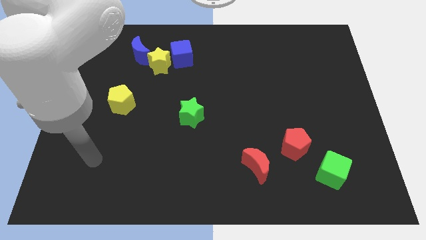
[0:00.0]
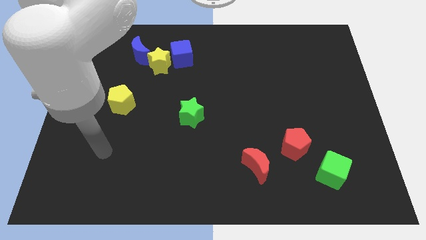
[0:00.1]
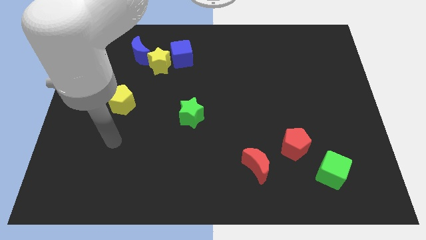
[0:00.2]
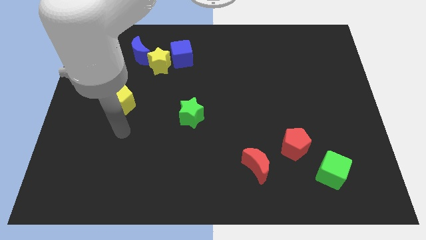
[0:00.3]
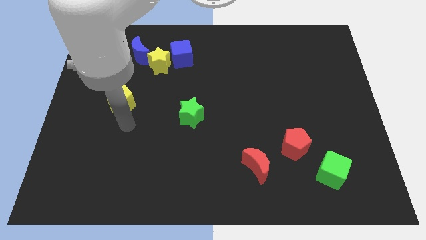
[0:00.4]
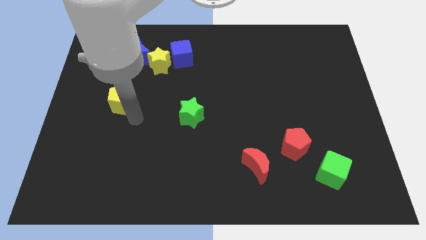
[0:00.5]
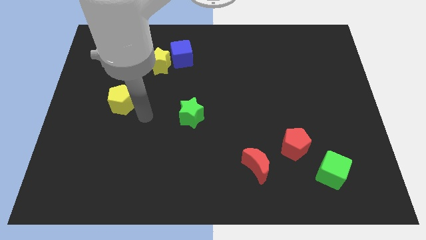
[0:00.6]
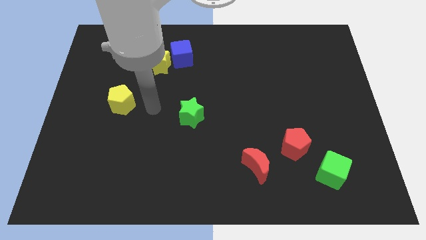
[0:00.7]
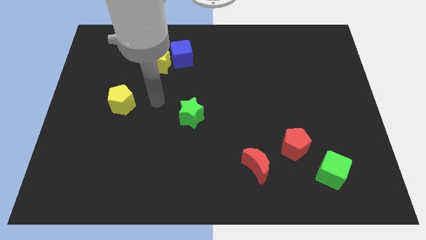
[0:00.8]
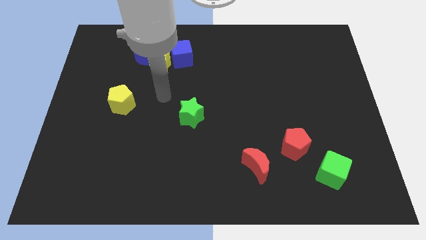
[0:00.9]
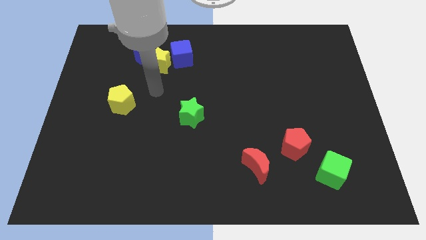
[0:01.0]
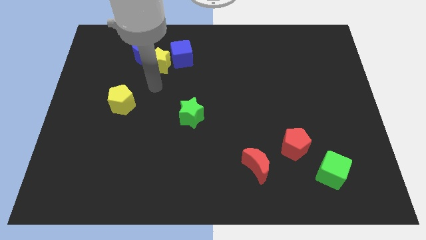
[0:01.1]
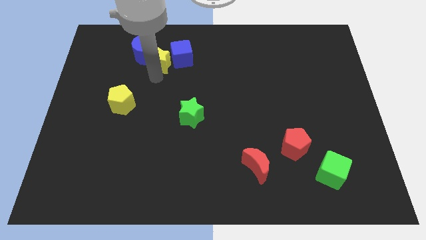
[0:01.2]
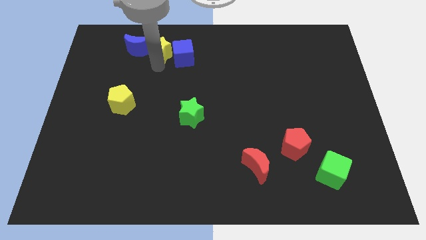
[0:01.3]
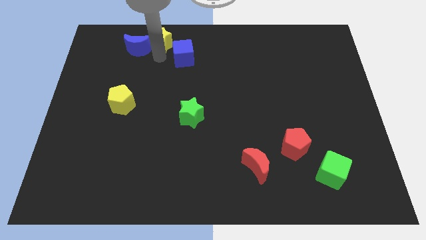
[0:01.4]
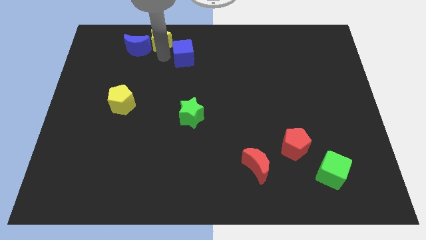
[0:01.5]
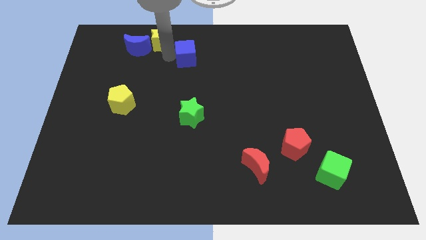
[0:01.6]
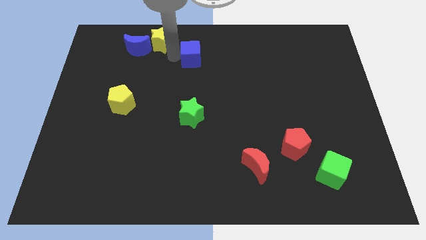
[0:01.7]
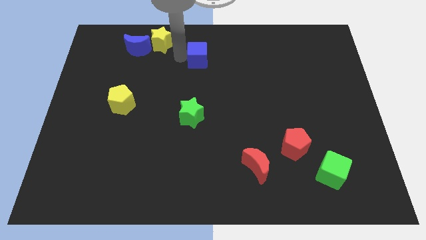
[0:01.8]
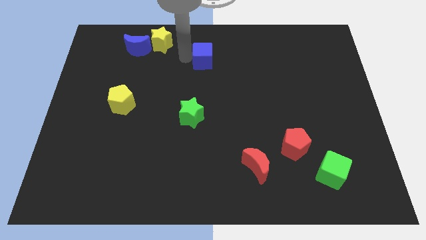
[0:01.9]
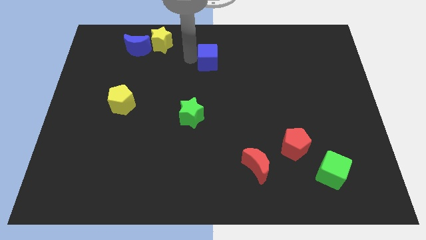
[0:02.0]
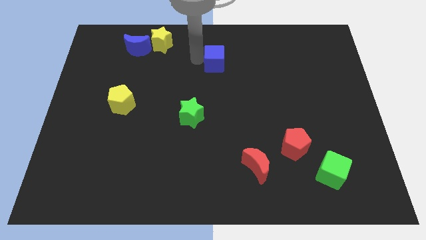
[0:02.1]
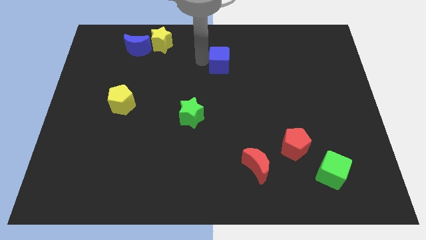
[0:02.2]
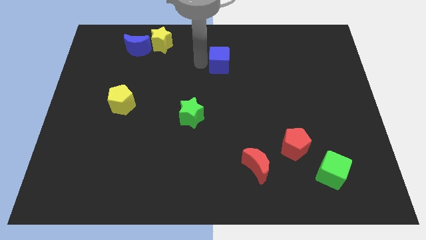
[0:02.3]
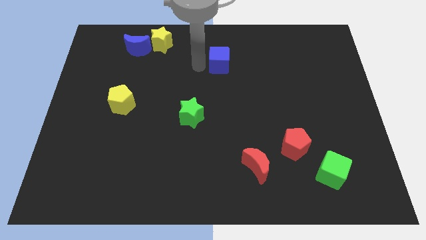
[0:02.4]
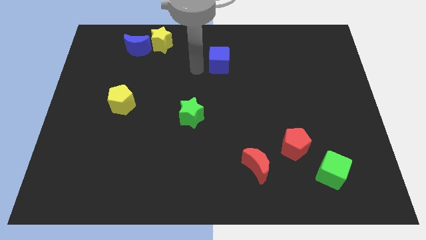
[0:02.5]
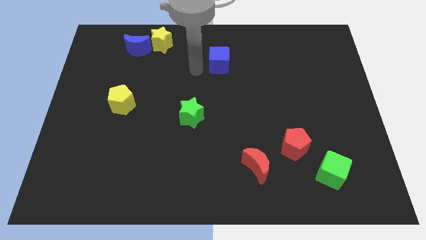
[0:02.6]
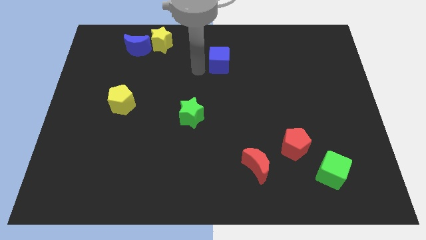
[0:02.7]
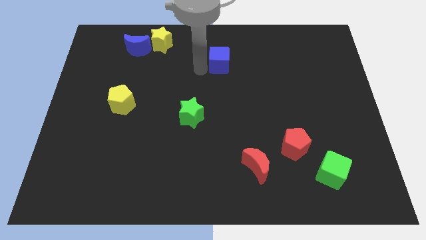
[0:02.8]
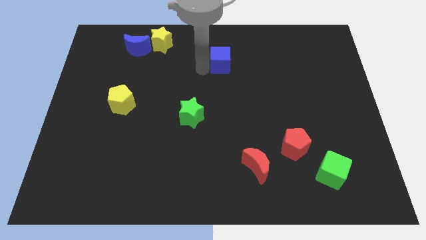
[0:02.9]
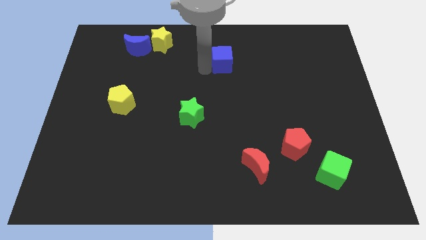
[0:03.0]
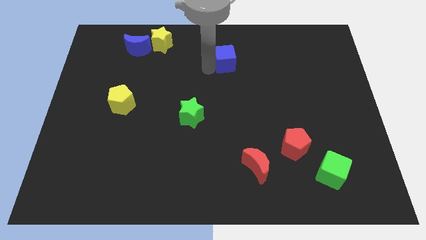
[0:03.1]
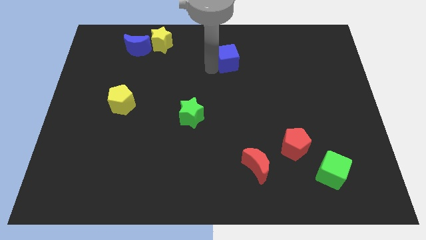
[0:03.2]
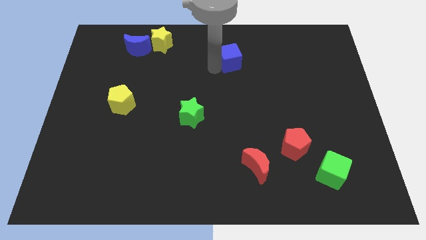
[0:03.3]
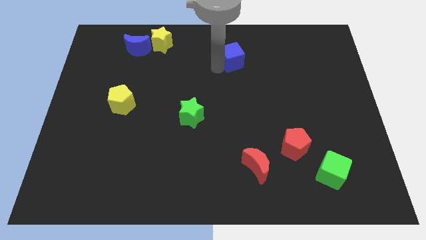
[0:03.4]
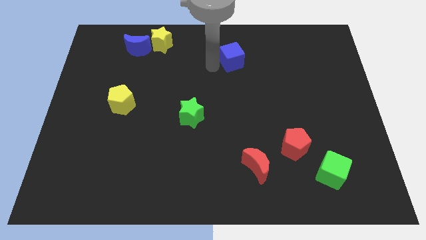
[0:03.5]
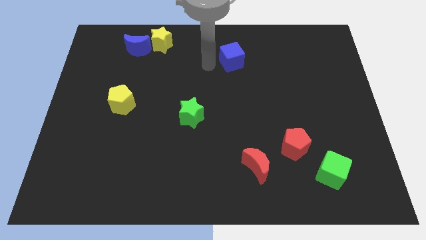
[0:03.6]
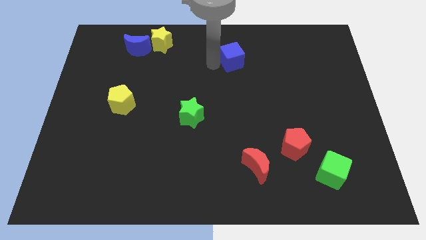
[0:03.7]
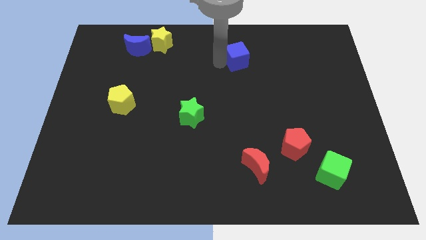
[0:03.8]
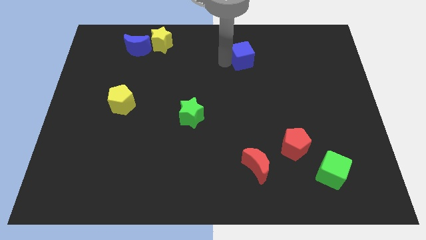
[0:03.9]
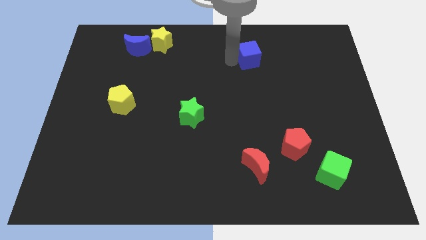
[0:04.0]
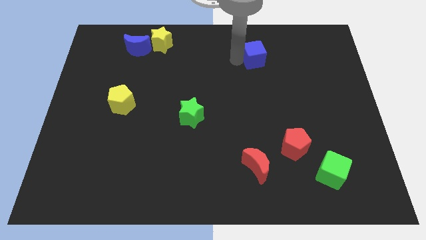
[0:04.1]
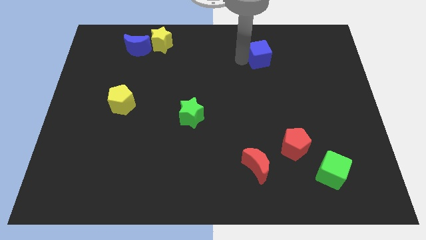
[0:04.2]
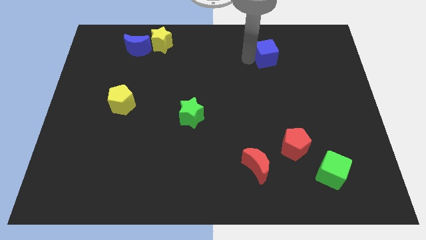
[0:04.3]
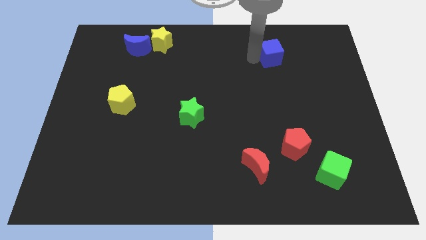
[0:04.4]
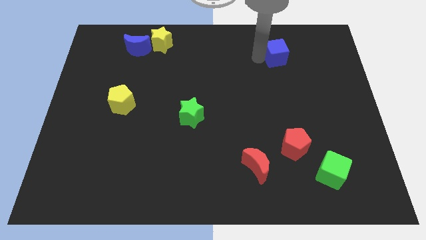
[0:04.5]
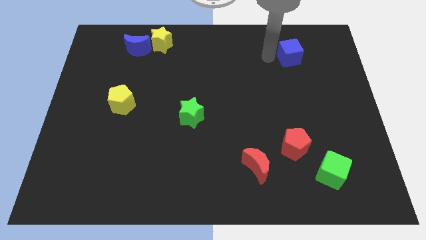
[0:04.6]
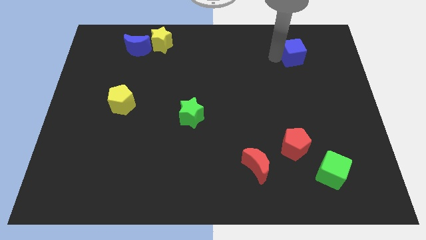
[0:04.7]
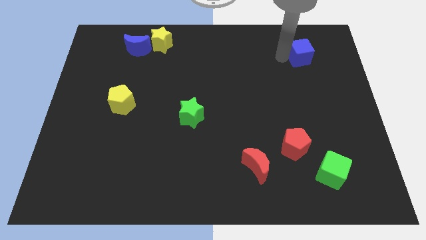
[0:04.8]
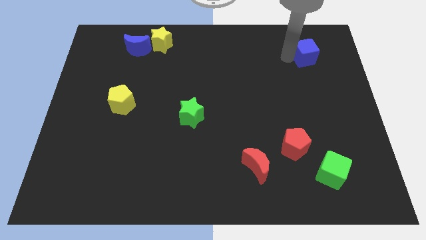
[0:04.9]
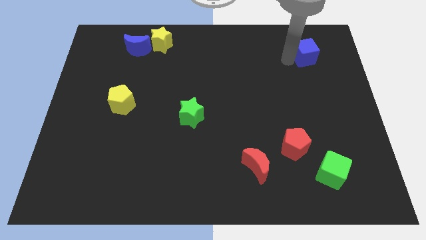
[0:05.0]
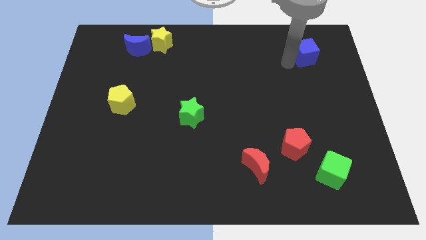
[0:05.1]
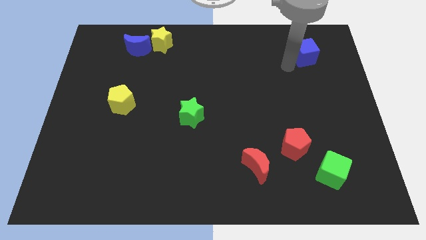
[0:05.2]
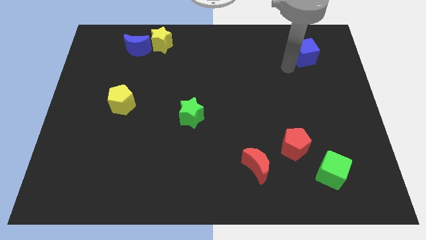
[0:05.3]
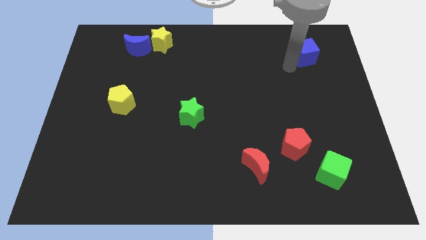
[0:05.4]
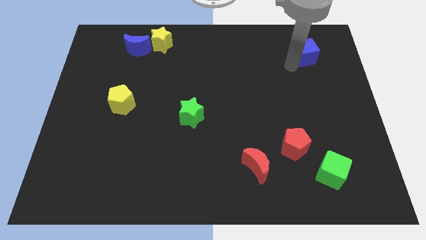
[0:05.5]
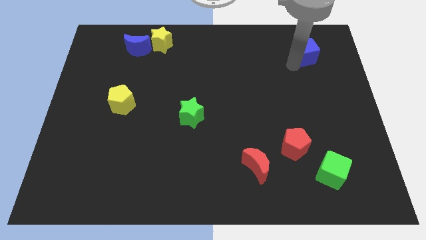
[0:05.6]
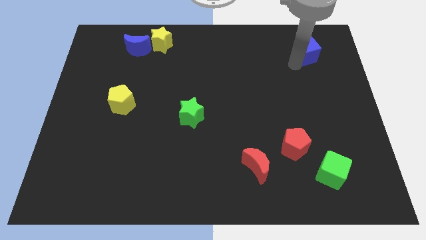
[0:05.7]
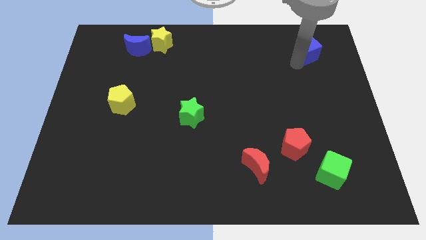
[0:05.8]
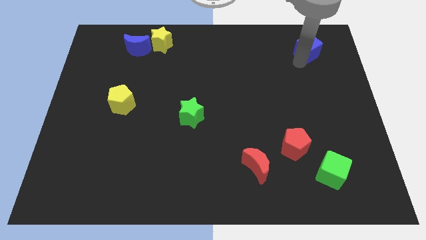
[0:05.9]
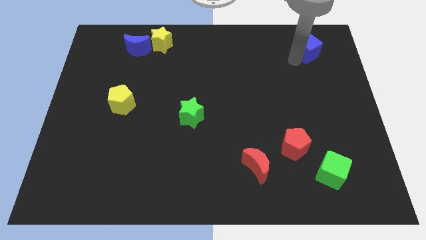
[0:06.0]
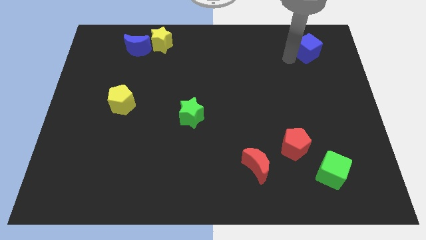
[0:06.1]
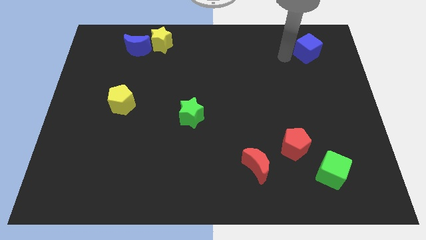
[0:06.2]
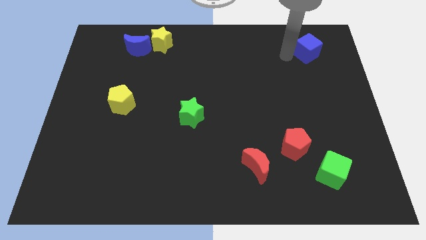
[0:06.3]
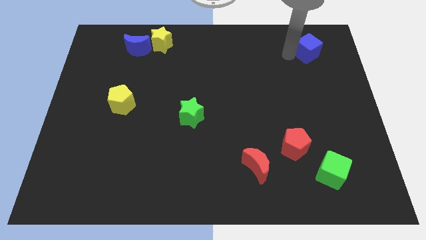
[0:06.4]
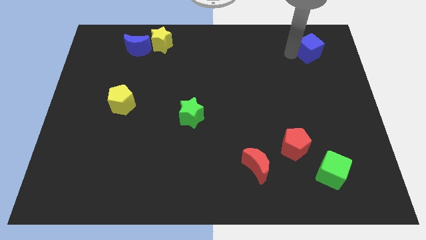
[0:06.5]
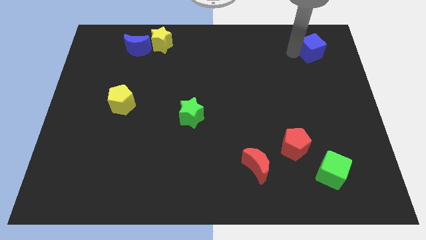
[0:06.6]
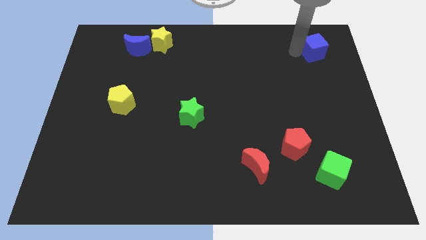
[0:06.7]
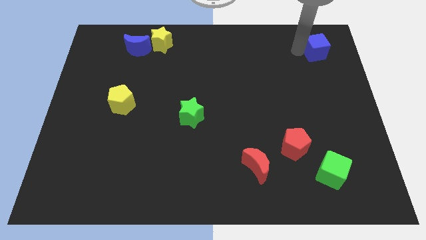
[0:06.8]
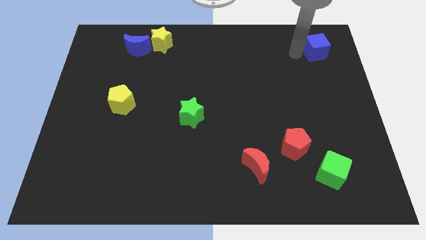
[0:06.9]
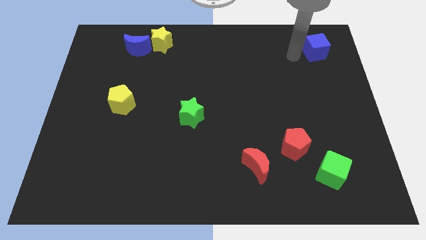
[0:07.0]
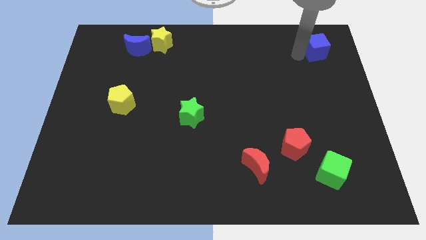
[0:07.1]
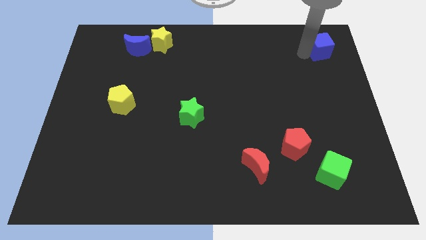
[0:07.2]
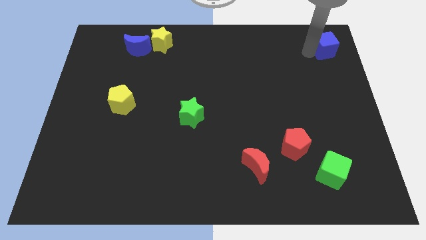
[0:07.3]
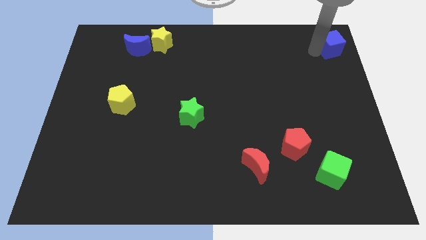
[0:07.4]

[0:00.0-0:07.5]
slide the blue cube to the upper right corner
